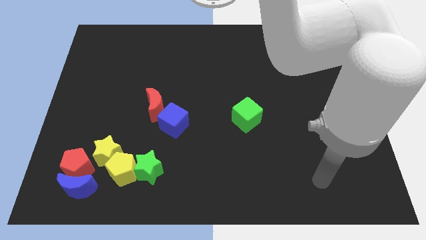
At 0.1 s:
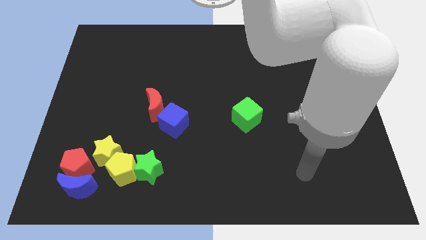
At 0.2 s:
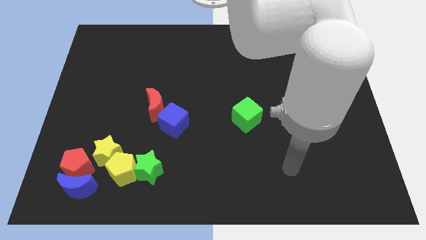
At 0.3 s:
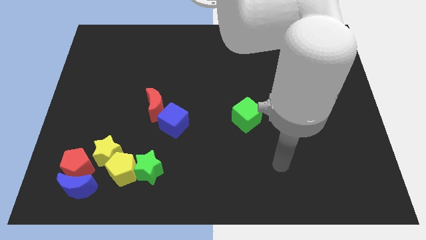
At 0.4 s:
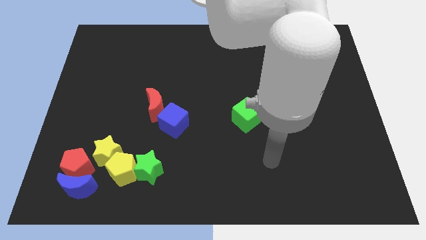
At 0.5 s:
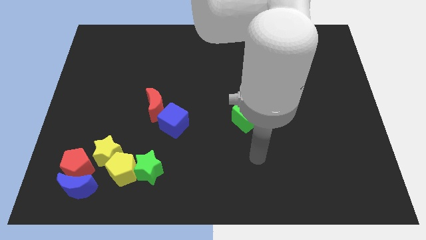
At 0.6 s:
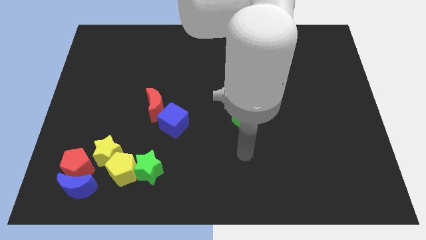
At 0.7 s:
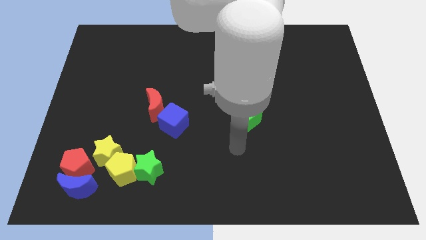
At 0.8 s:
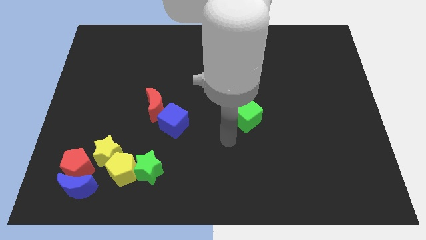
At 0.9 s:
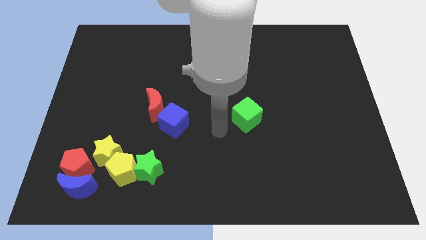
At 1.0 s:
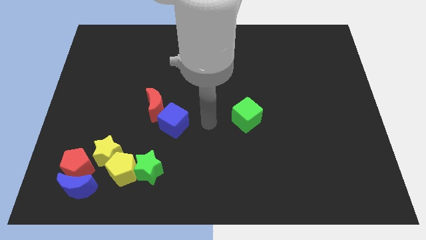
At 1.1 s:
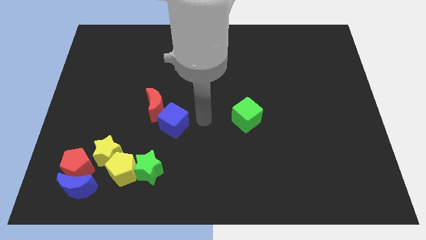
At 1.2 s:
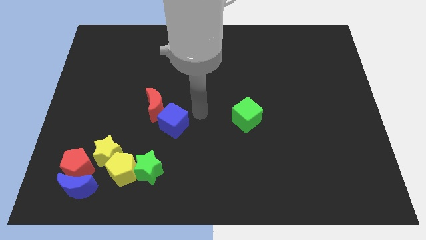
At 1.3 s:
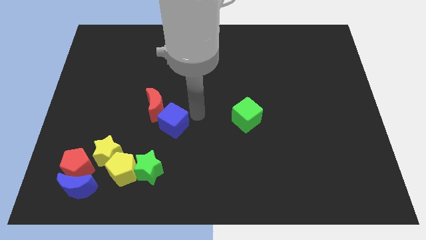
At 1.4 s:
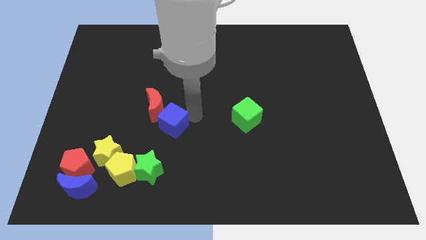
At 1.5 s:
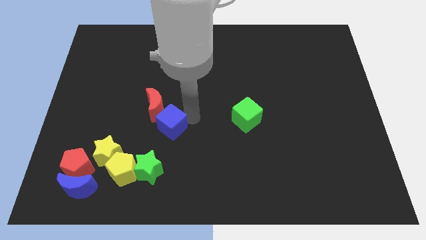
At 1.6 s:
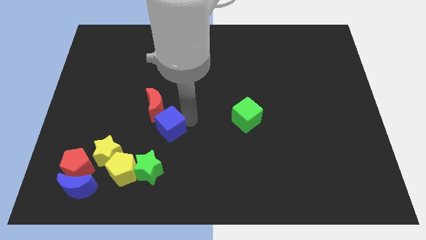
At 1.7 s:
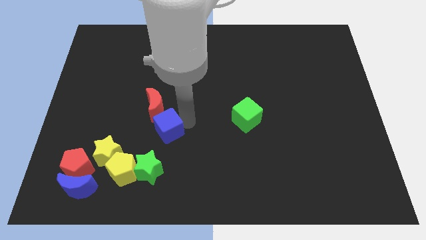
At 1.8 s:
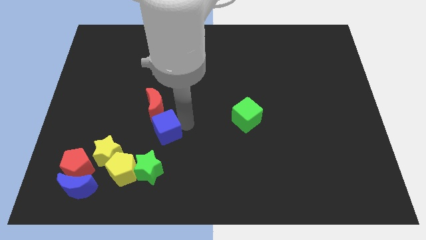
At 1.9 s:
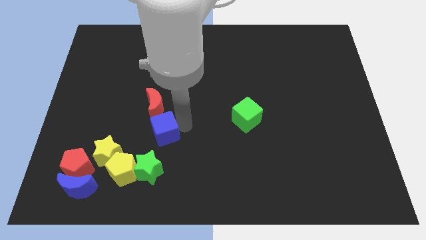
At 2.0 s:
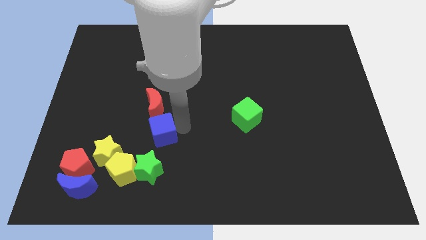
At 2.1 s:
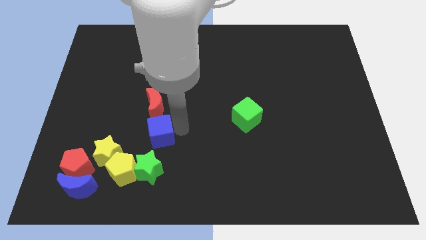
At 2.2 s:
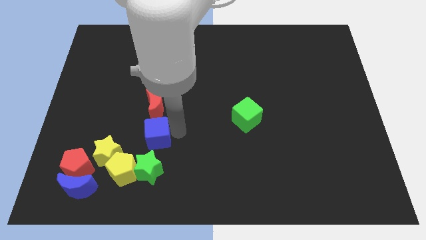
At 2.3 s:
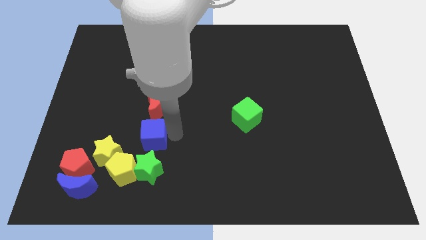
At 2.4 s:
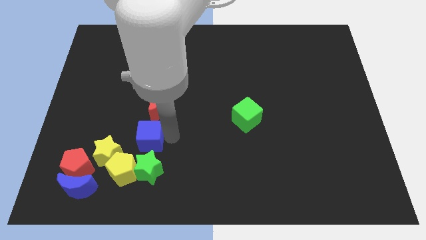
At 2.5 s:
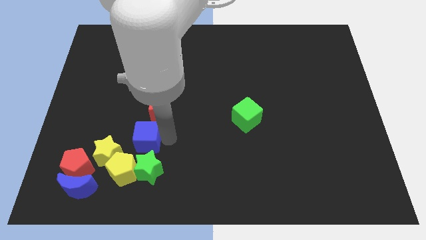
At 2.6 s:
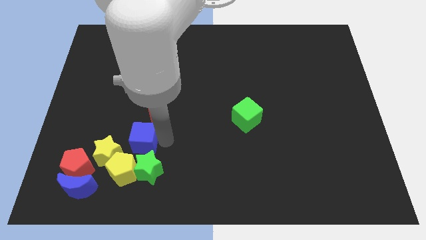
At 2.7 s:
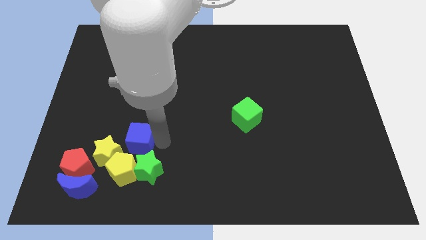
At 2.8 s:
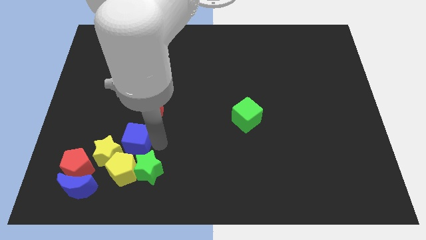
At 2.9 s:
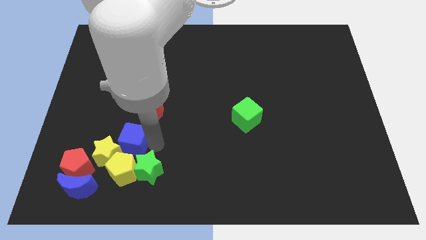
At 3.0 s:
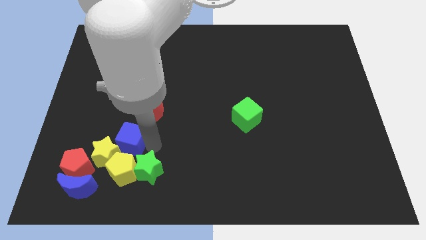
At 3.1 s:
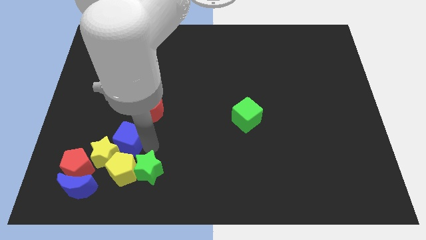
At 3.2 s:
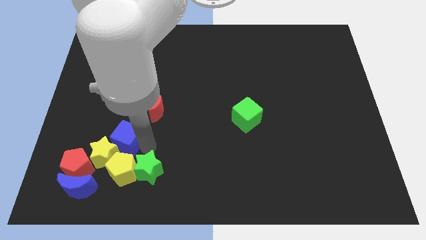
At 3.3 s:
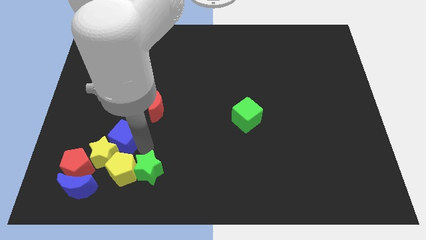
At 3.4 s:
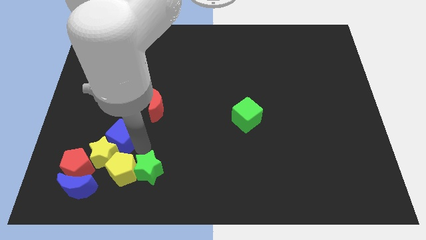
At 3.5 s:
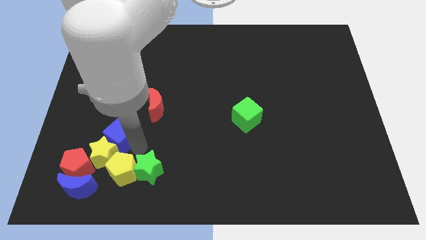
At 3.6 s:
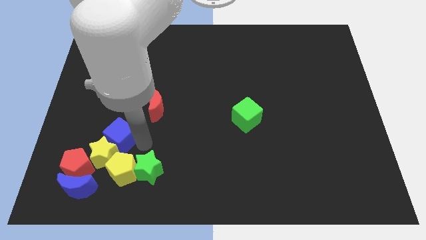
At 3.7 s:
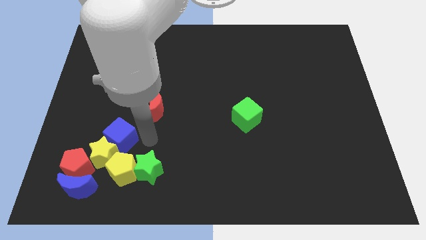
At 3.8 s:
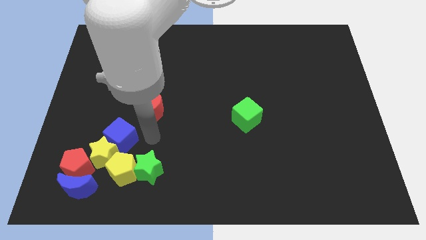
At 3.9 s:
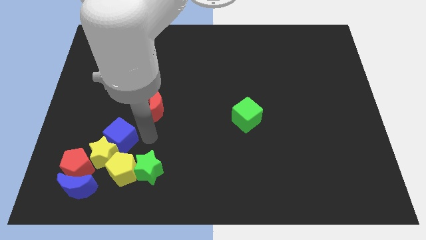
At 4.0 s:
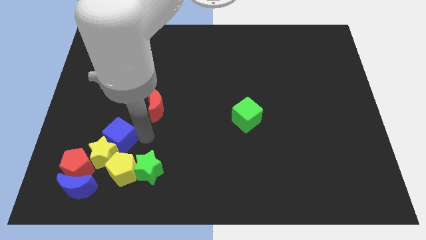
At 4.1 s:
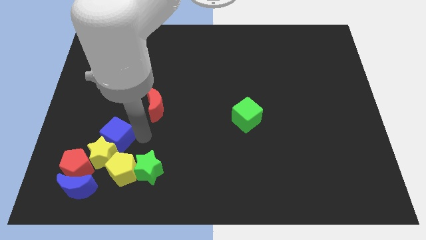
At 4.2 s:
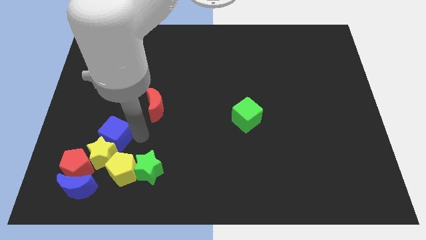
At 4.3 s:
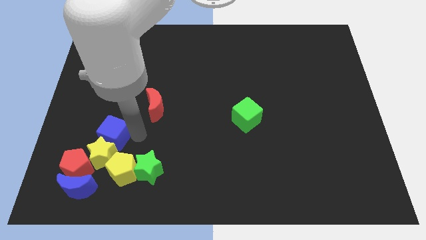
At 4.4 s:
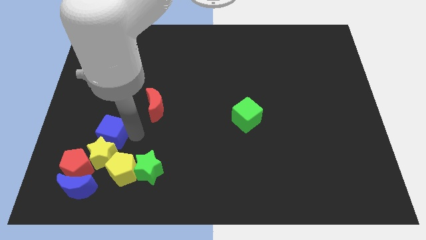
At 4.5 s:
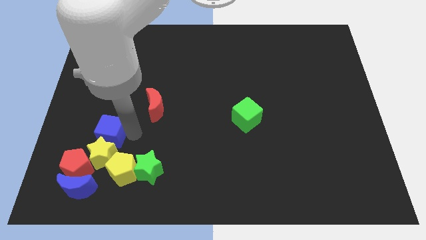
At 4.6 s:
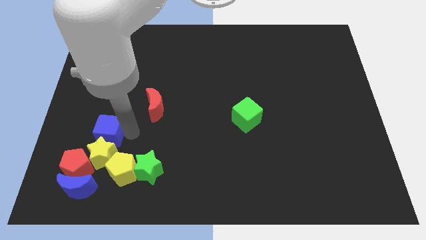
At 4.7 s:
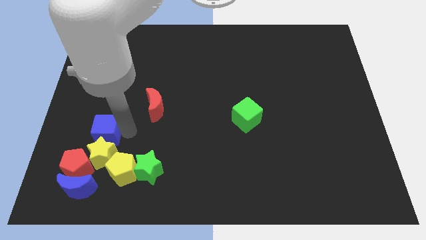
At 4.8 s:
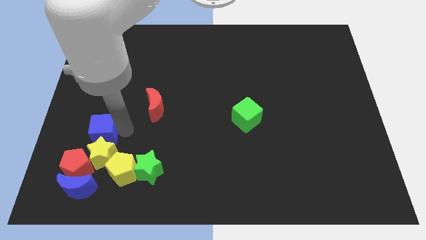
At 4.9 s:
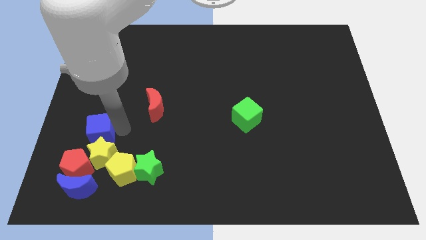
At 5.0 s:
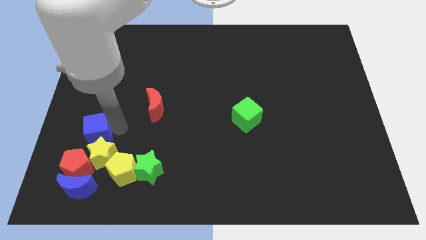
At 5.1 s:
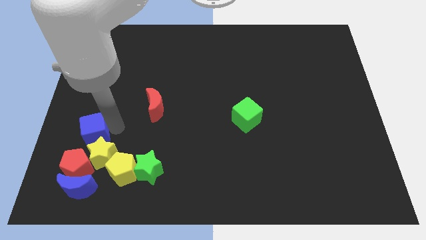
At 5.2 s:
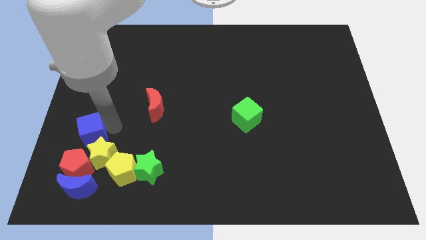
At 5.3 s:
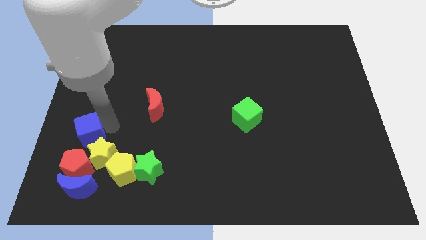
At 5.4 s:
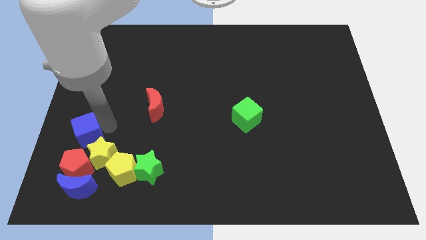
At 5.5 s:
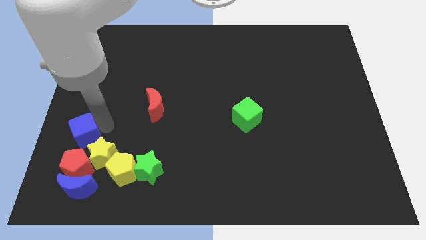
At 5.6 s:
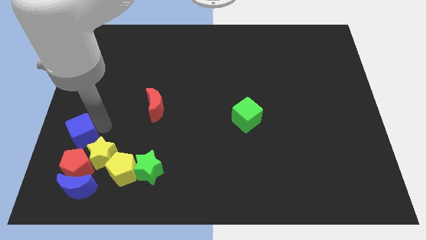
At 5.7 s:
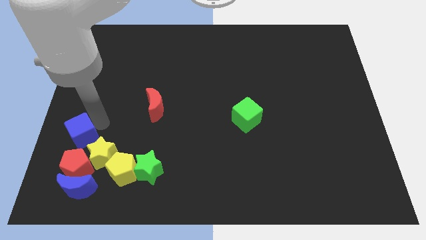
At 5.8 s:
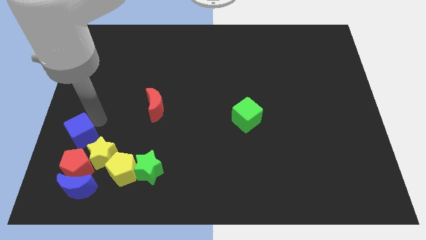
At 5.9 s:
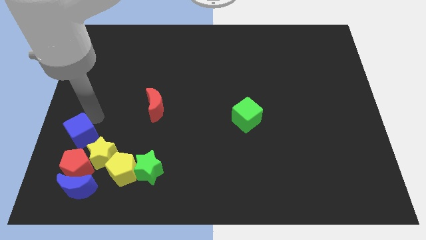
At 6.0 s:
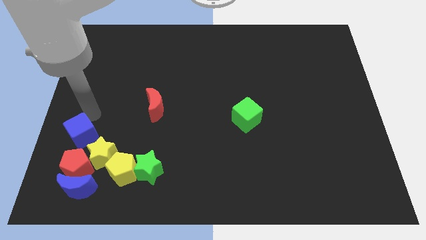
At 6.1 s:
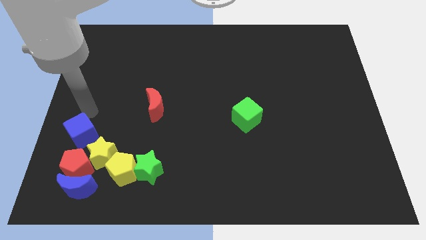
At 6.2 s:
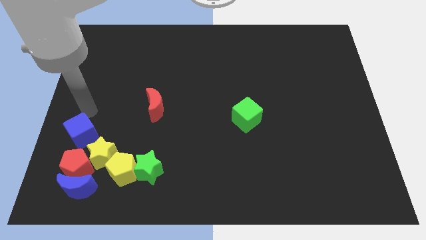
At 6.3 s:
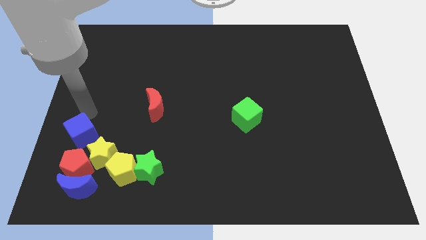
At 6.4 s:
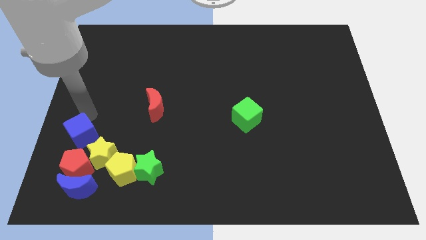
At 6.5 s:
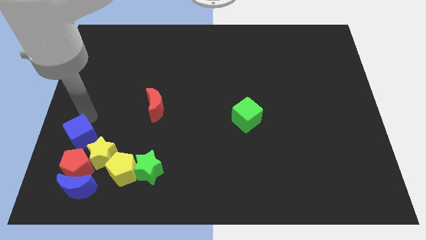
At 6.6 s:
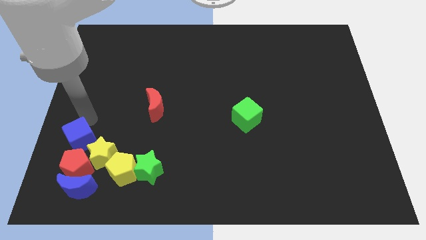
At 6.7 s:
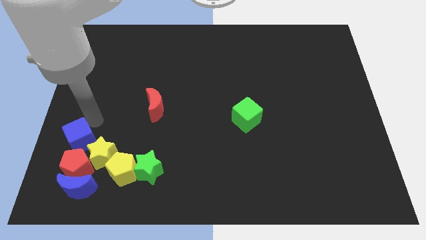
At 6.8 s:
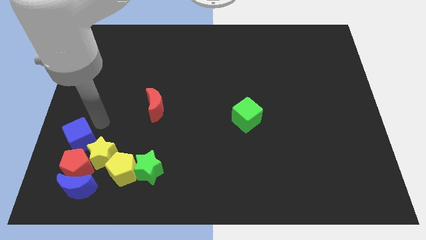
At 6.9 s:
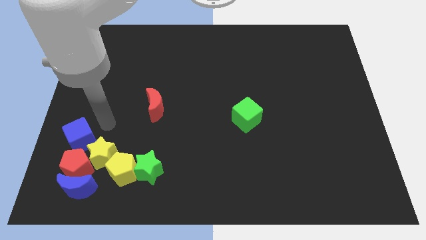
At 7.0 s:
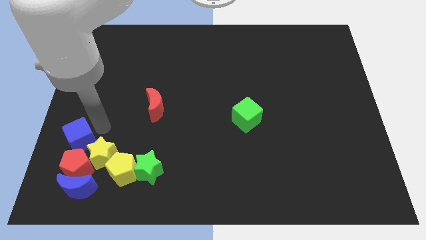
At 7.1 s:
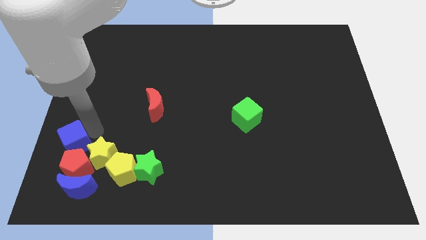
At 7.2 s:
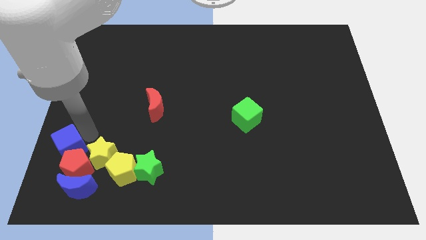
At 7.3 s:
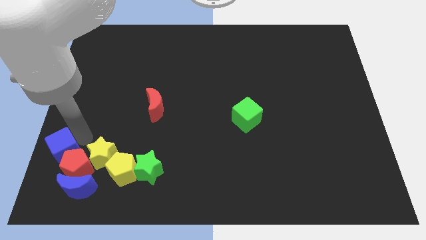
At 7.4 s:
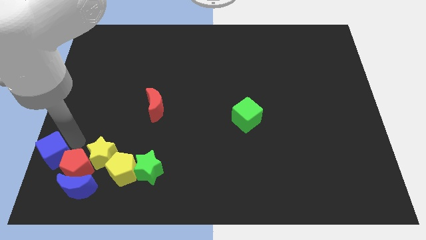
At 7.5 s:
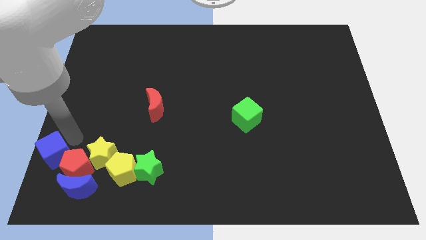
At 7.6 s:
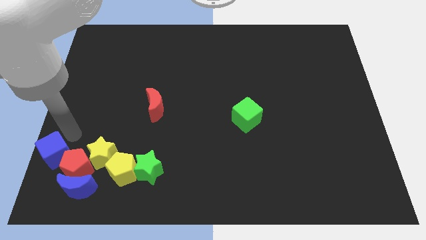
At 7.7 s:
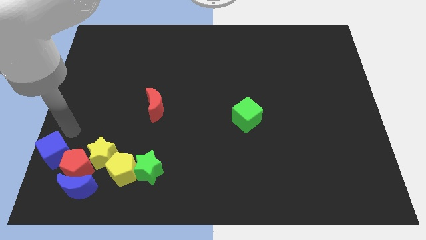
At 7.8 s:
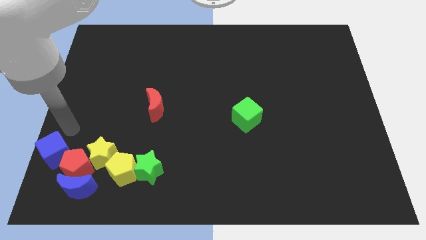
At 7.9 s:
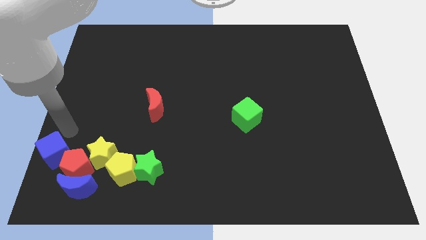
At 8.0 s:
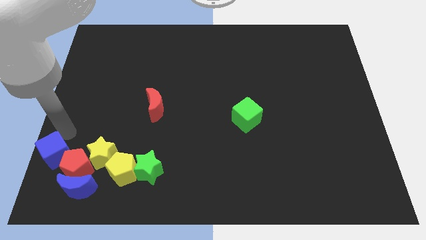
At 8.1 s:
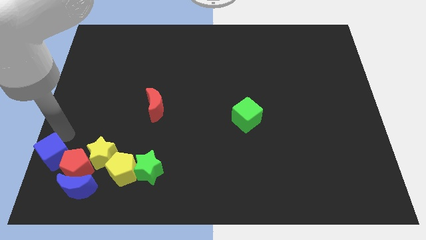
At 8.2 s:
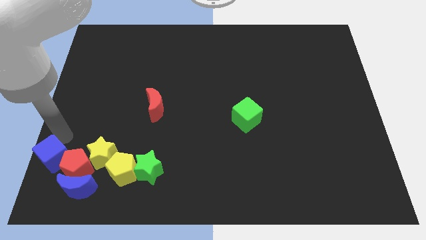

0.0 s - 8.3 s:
put the blue cube to the lower left corner
